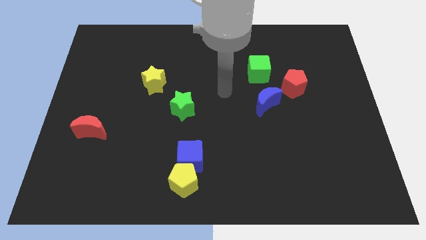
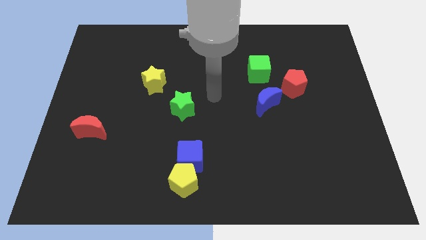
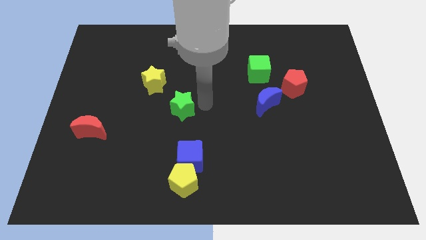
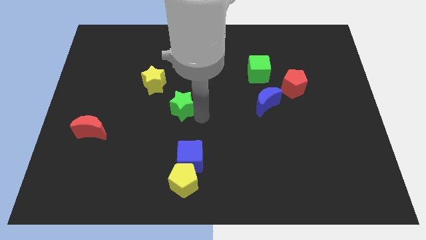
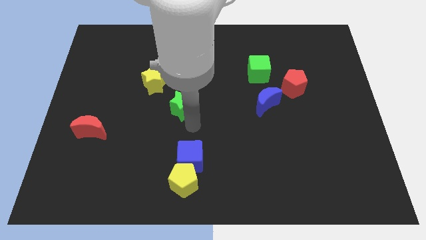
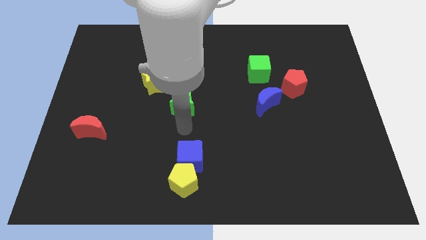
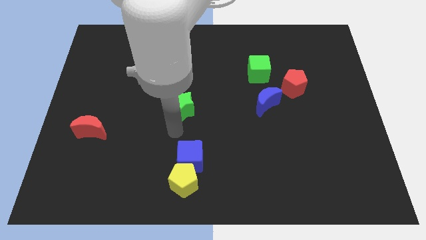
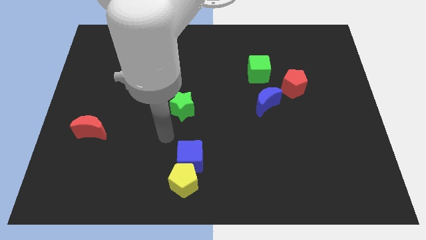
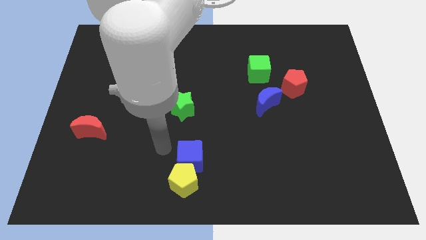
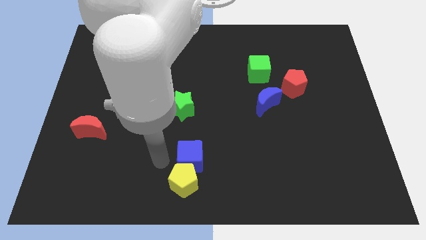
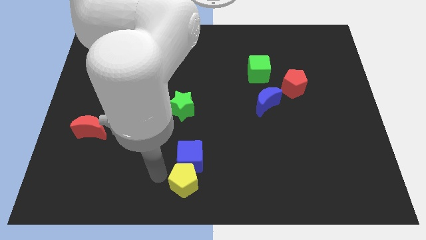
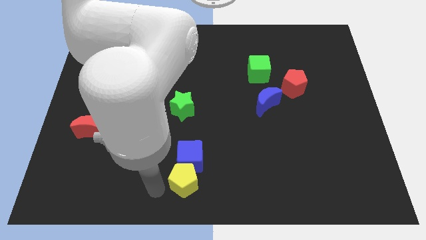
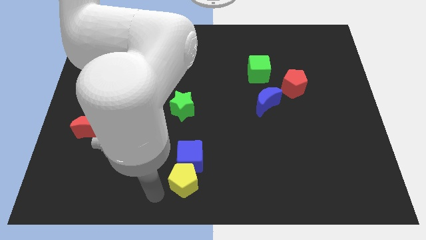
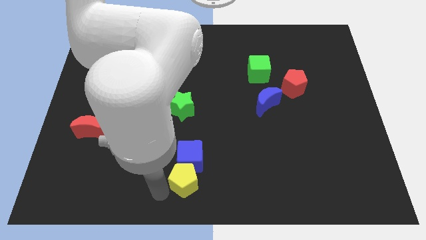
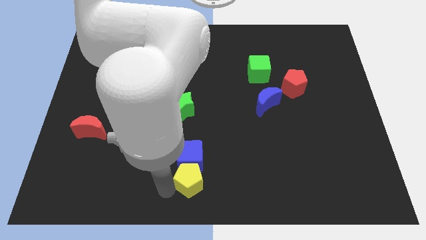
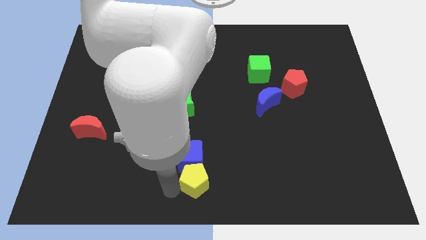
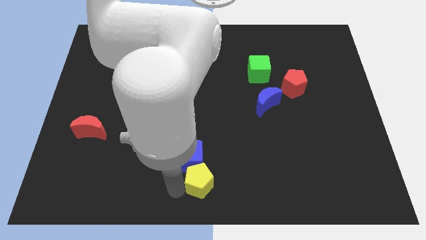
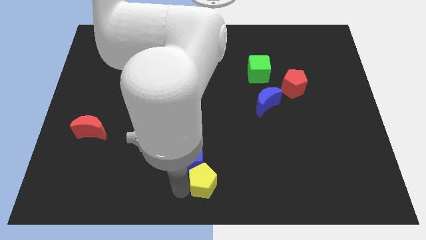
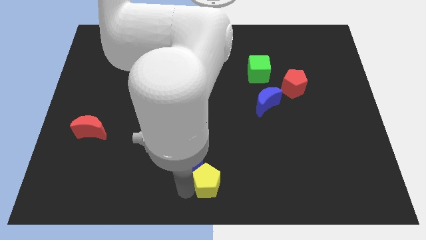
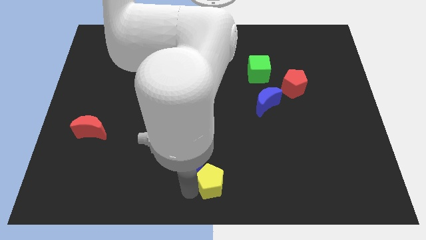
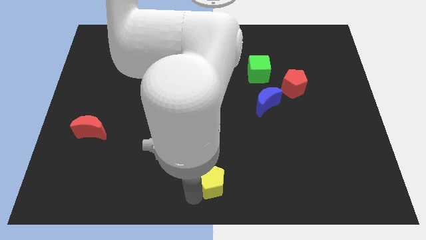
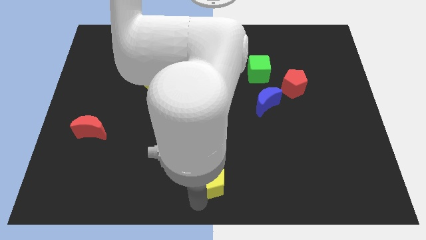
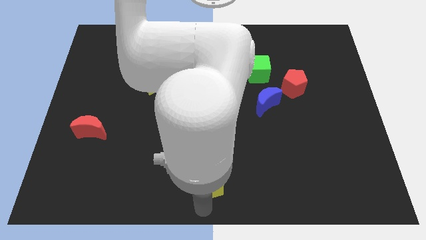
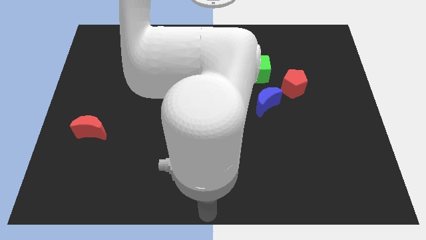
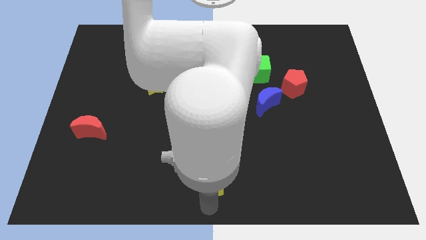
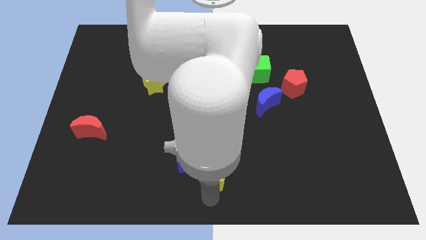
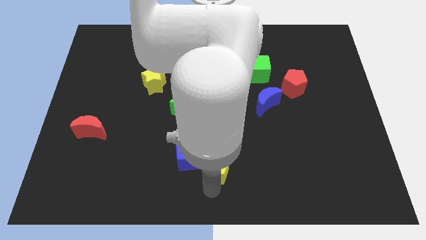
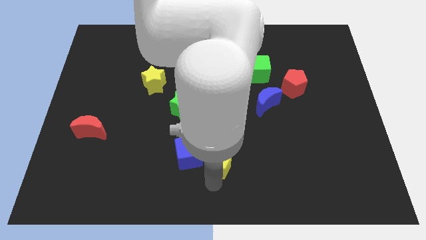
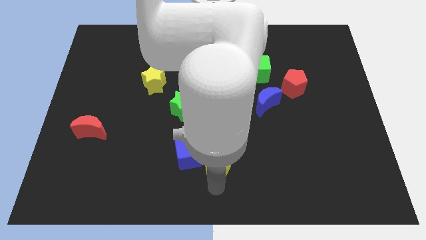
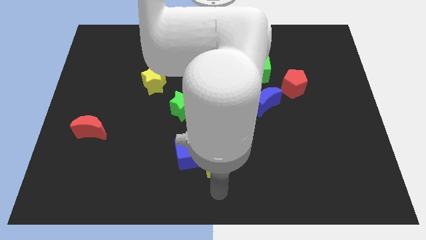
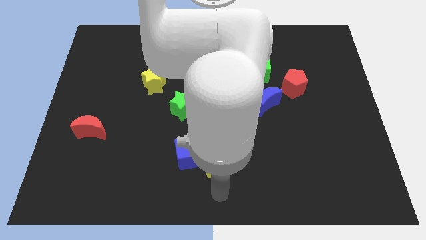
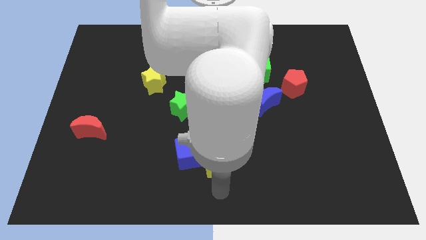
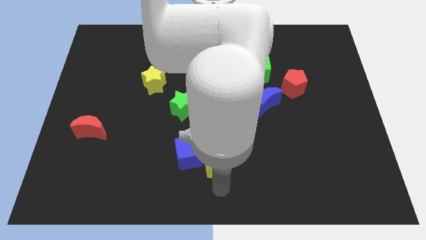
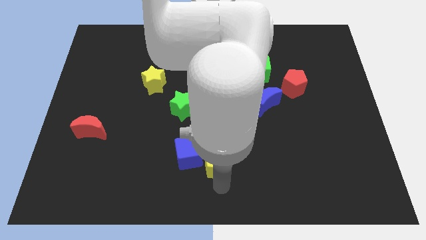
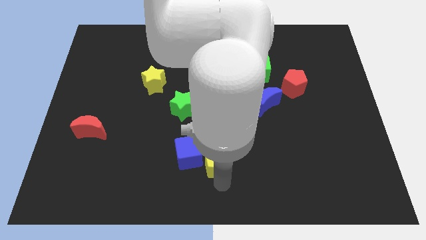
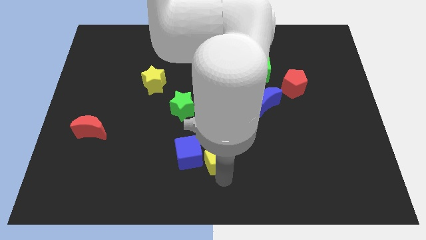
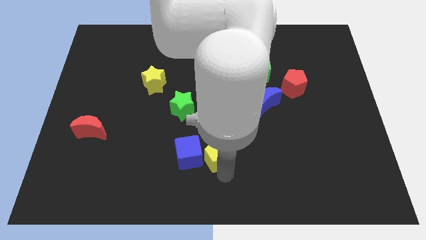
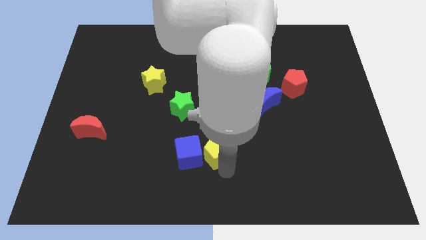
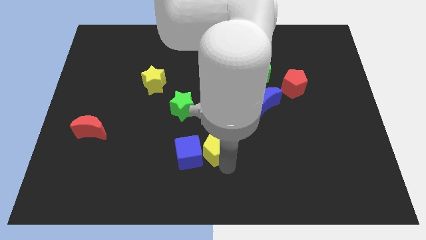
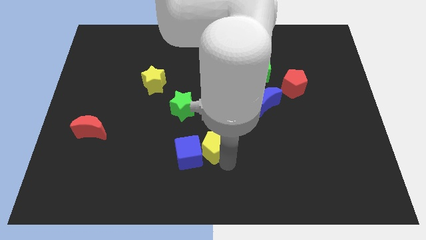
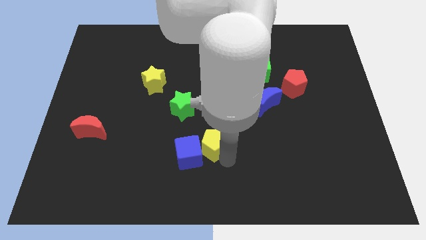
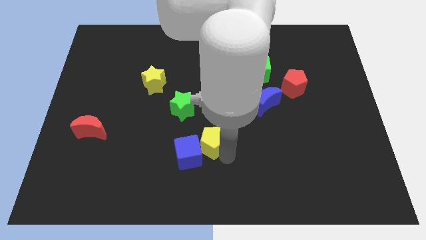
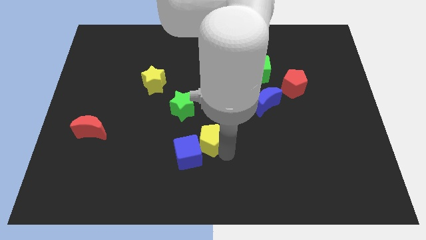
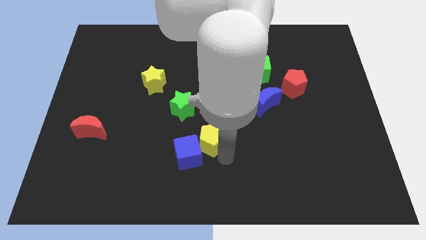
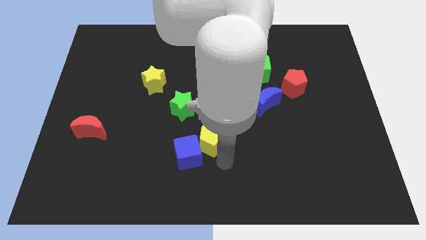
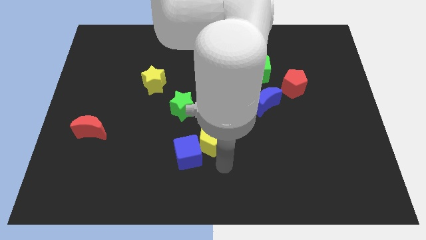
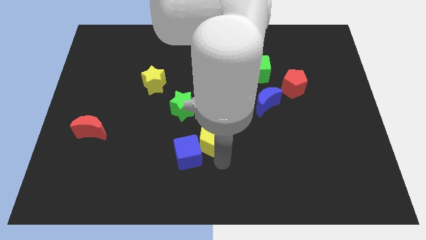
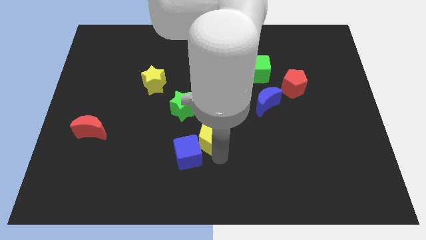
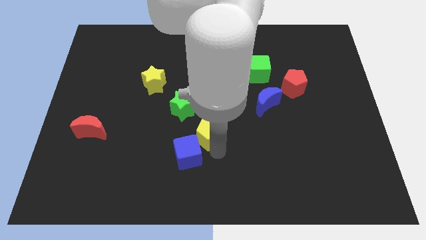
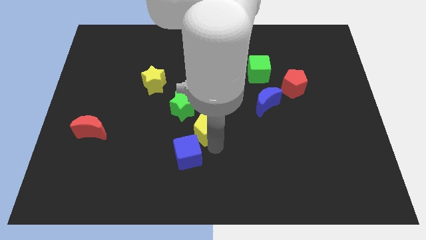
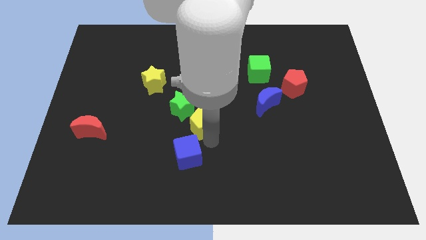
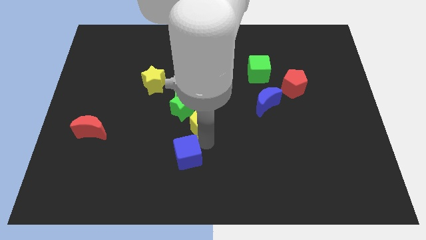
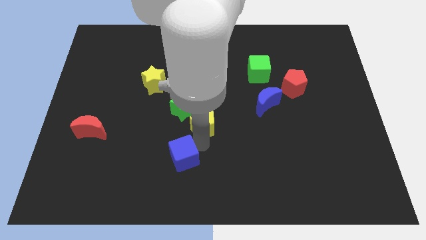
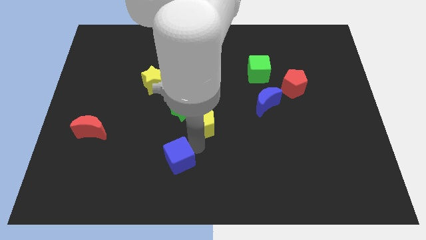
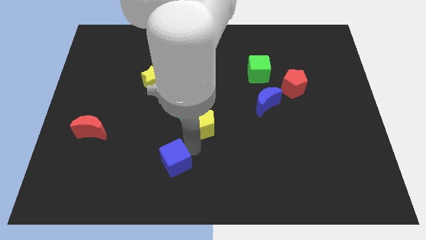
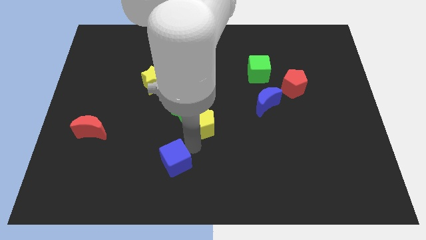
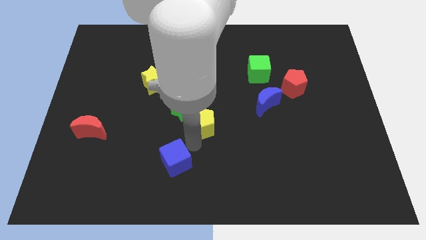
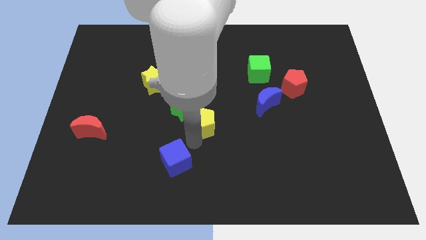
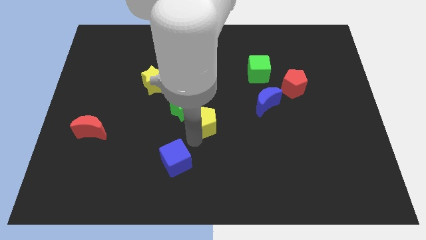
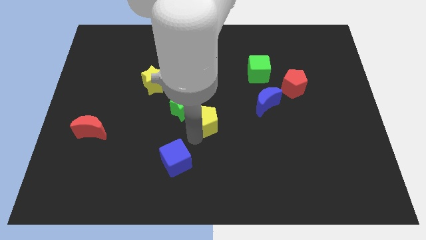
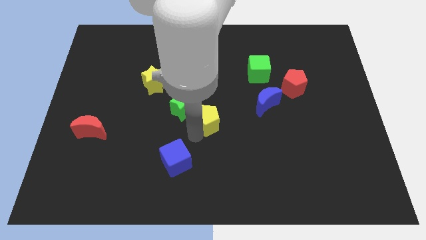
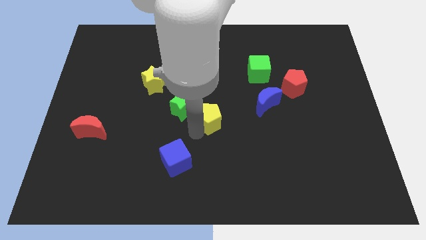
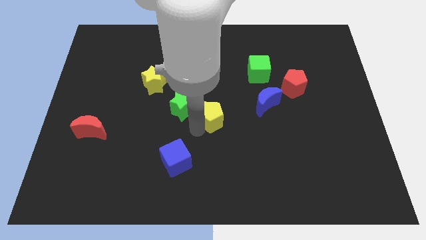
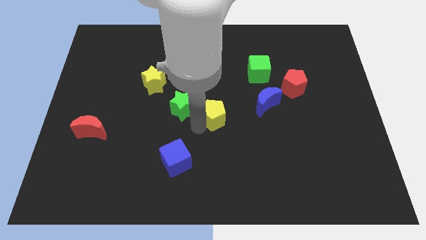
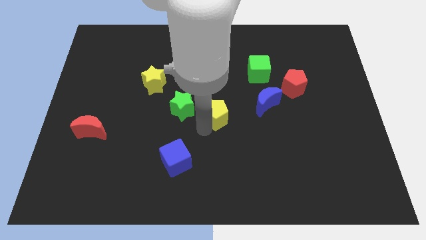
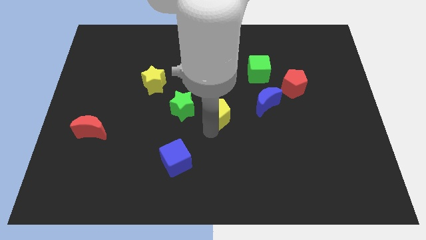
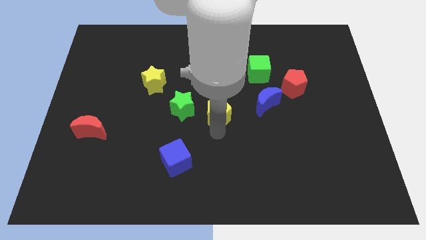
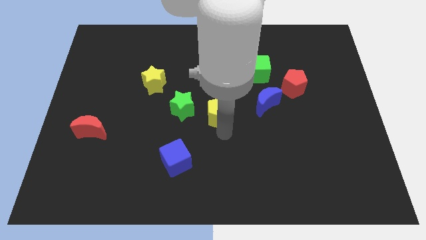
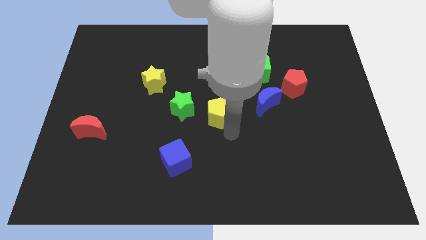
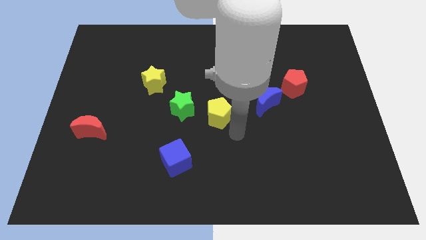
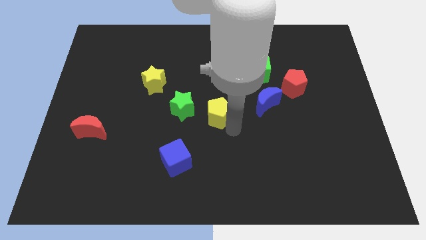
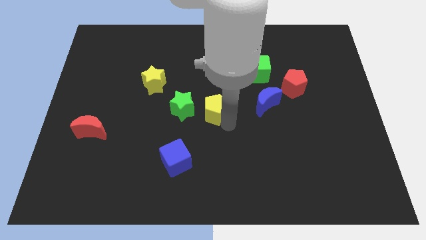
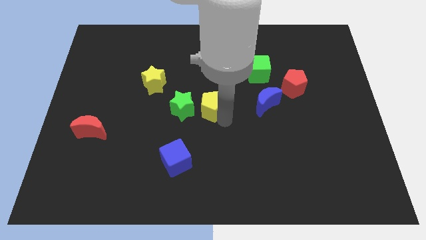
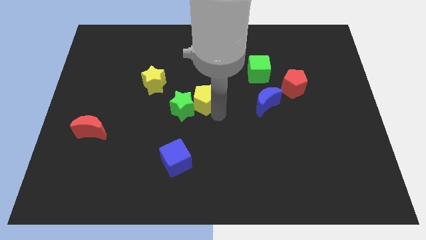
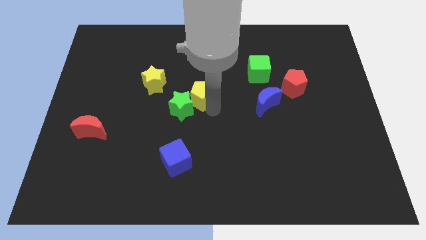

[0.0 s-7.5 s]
push the yellow pentagon just right of the yellow star

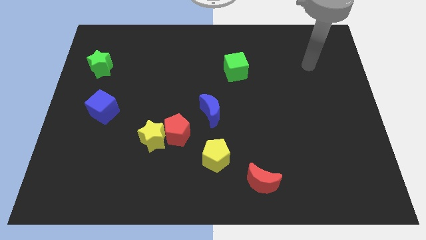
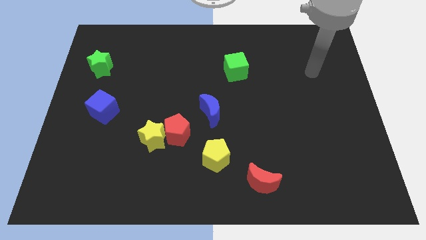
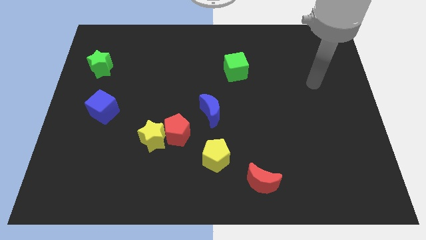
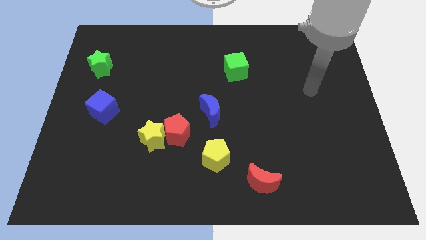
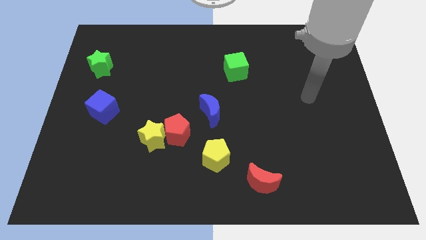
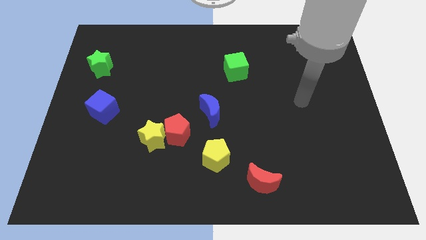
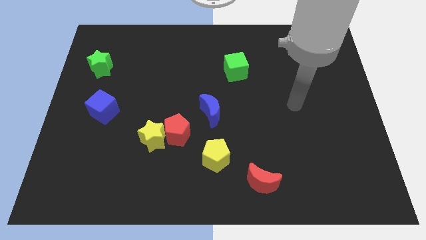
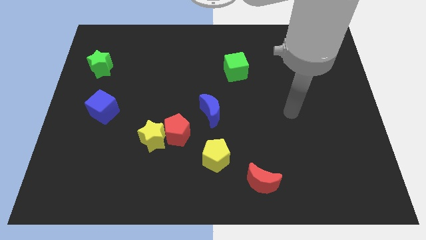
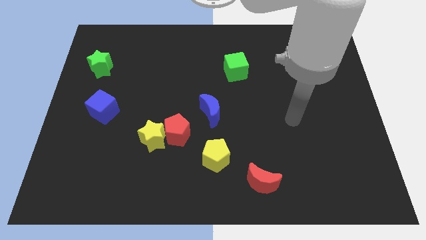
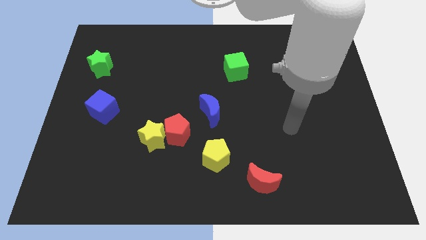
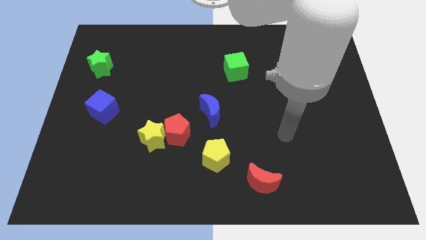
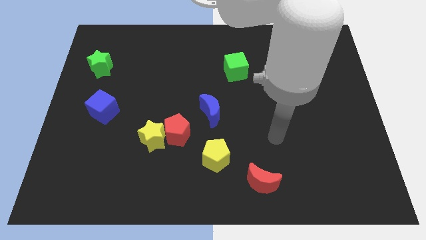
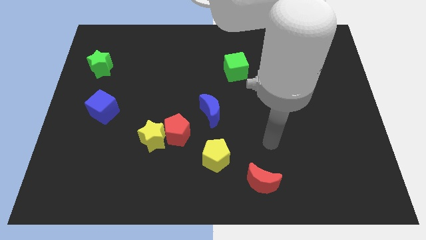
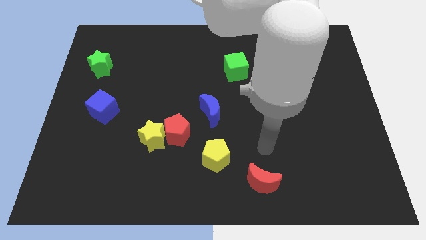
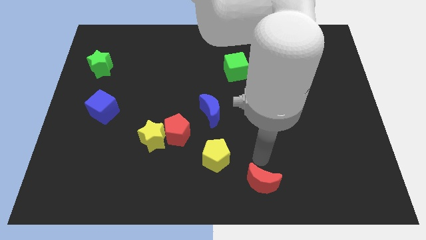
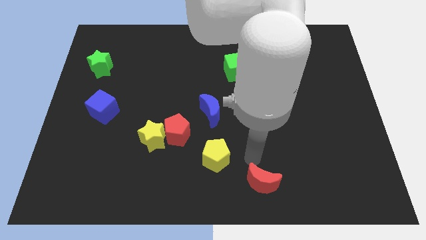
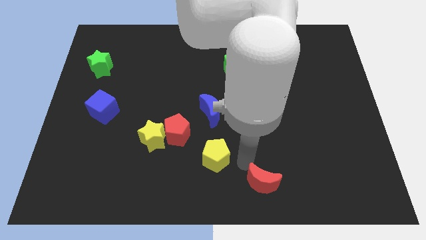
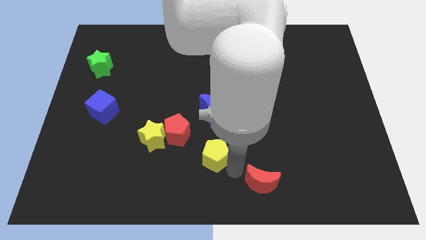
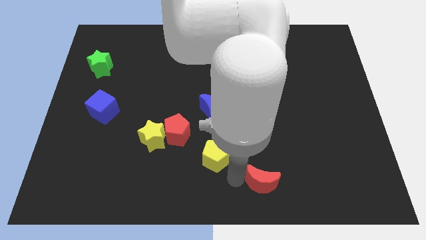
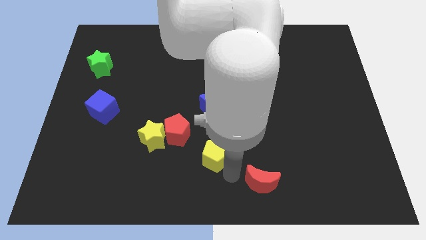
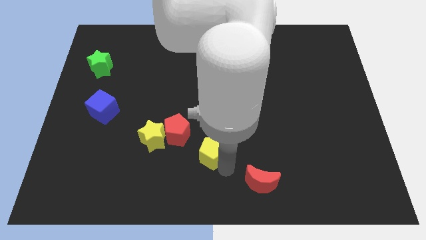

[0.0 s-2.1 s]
slide the yellow pentagon to the right of the yellow star
